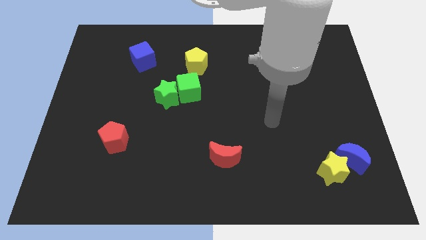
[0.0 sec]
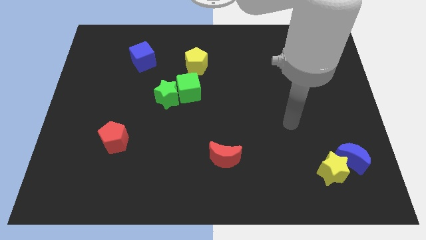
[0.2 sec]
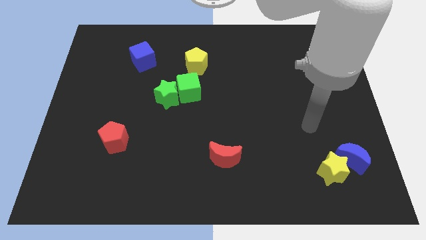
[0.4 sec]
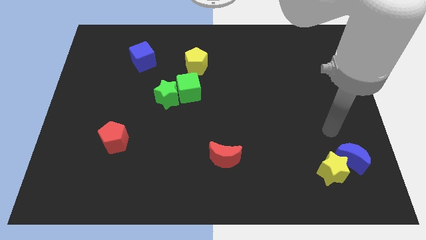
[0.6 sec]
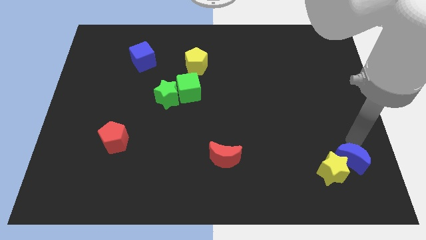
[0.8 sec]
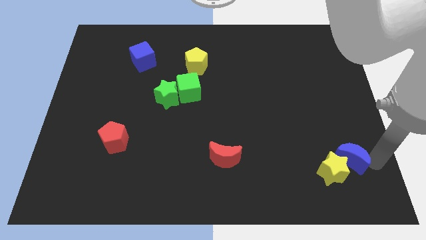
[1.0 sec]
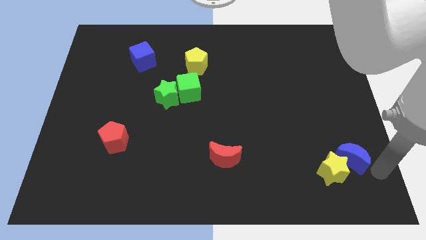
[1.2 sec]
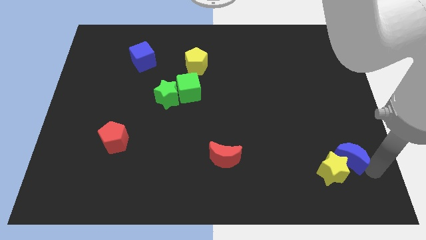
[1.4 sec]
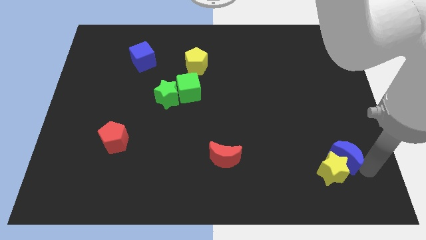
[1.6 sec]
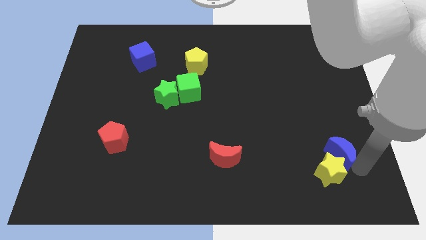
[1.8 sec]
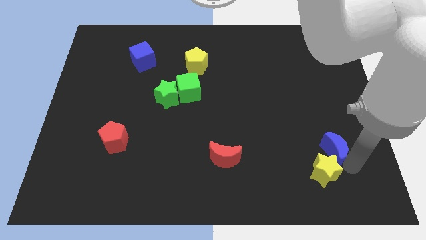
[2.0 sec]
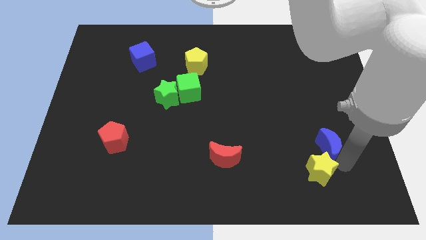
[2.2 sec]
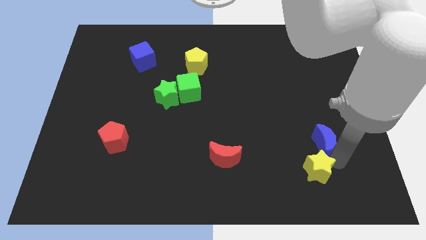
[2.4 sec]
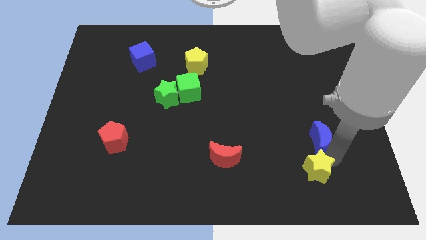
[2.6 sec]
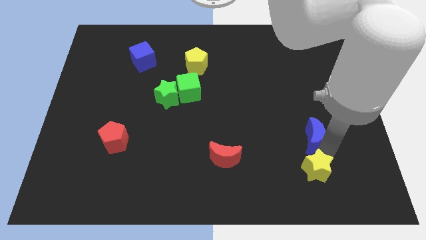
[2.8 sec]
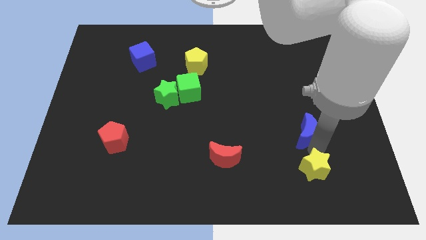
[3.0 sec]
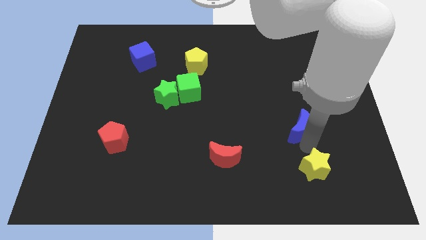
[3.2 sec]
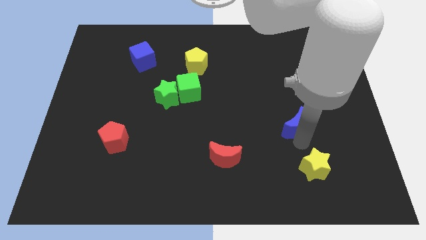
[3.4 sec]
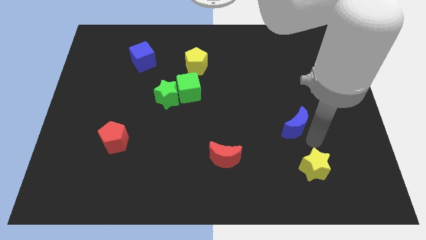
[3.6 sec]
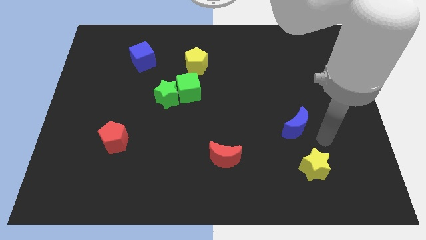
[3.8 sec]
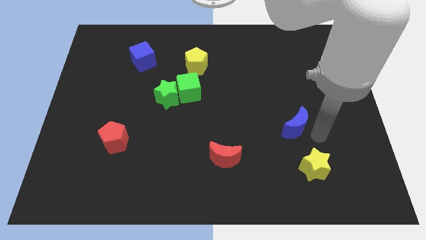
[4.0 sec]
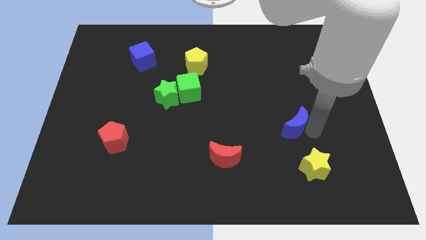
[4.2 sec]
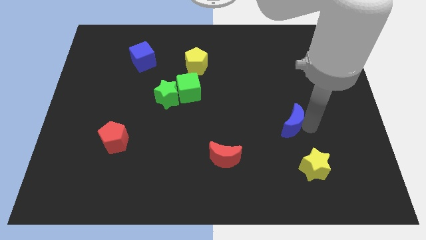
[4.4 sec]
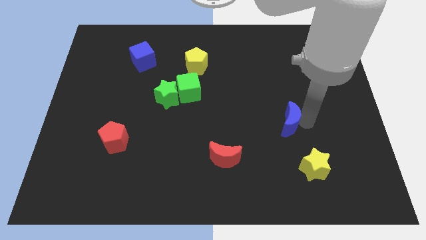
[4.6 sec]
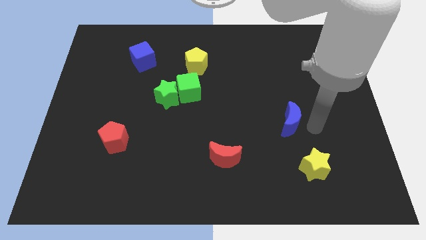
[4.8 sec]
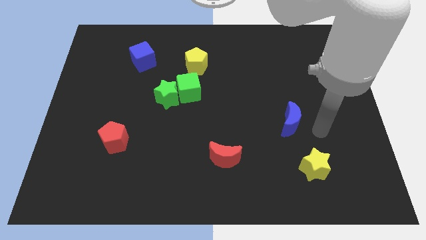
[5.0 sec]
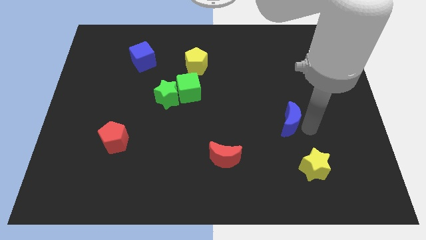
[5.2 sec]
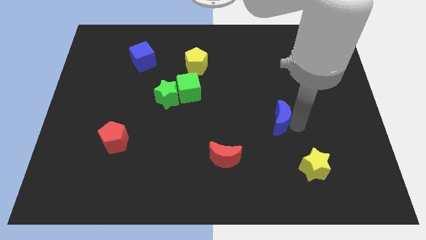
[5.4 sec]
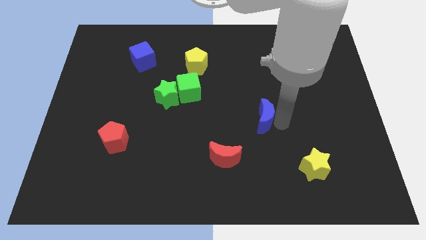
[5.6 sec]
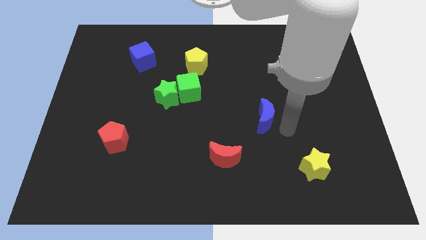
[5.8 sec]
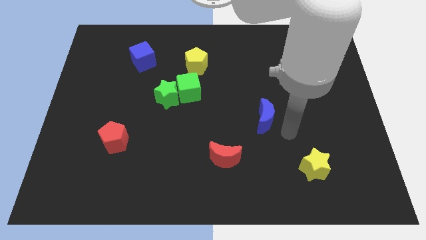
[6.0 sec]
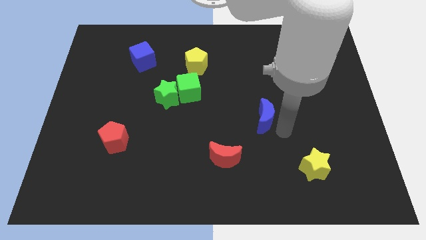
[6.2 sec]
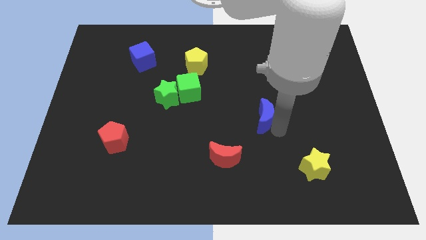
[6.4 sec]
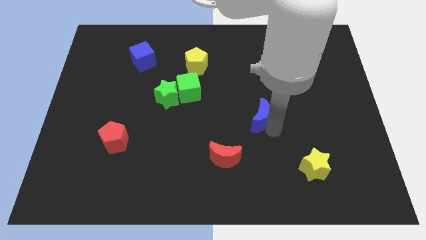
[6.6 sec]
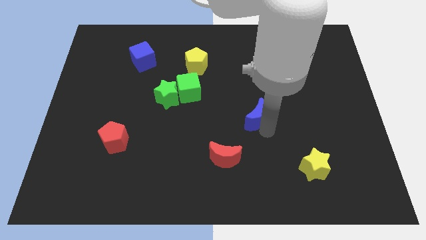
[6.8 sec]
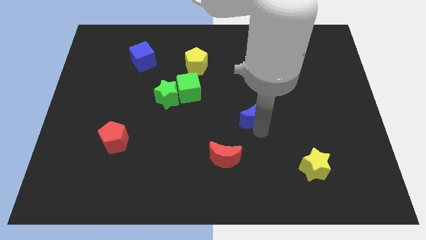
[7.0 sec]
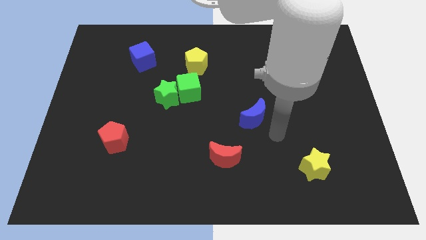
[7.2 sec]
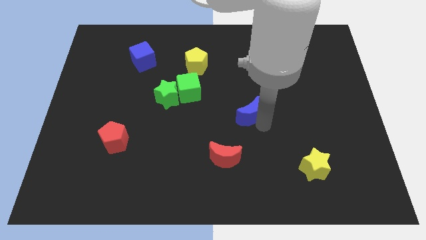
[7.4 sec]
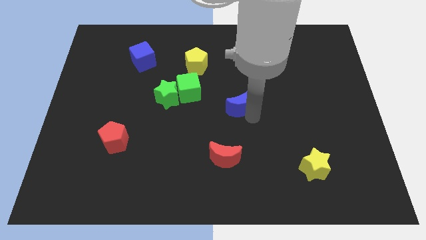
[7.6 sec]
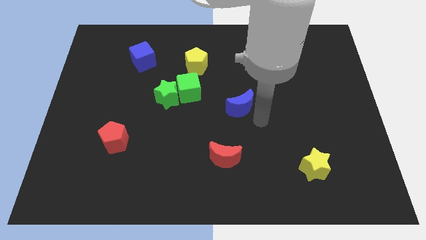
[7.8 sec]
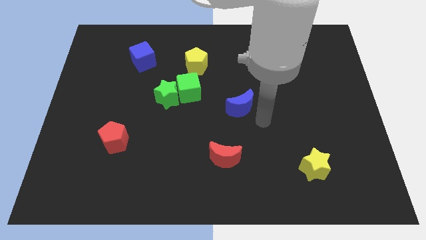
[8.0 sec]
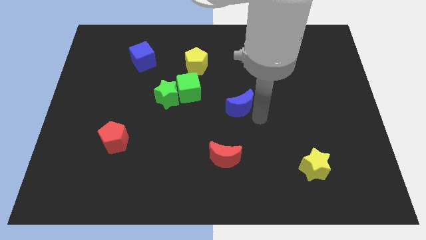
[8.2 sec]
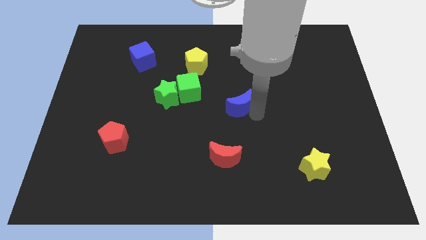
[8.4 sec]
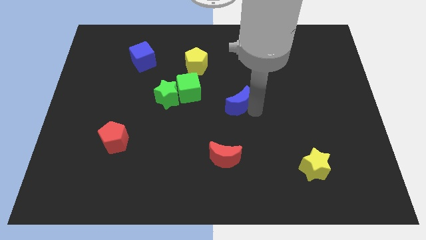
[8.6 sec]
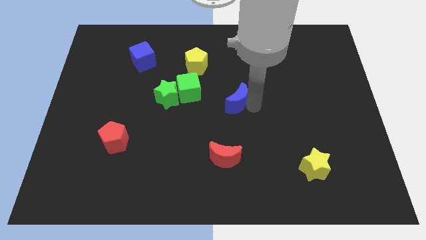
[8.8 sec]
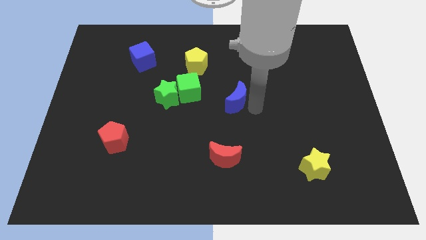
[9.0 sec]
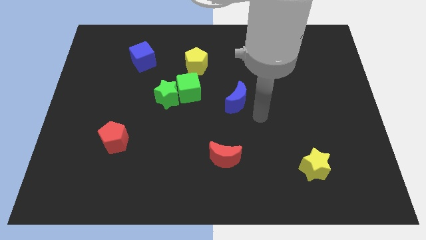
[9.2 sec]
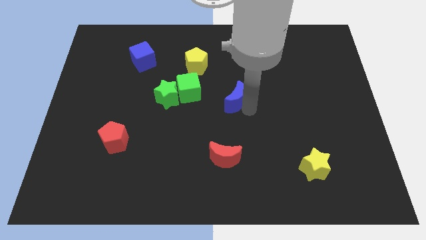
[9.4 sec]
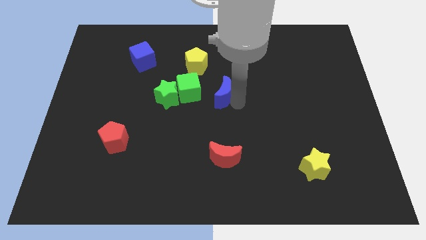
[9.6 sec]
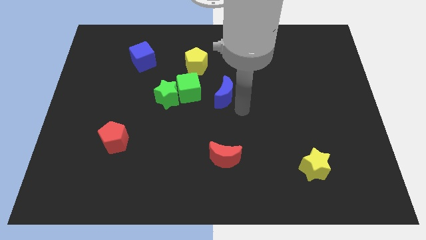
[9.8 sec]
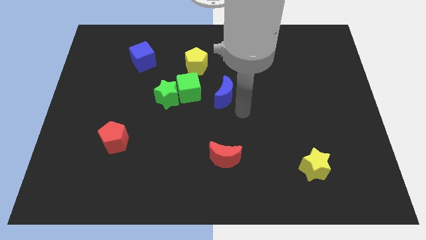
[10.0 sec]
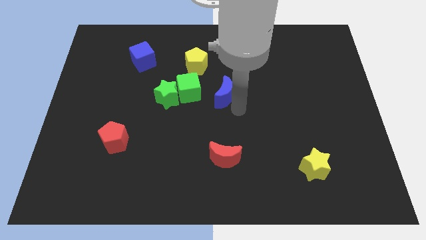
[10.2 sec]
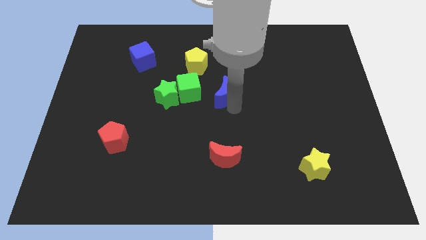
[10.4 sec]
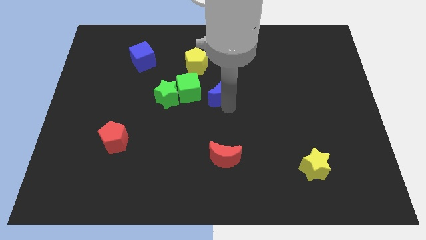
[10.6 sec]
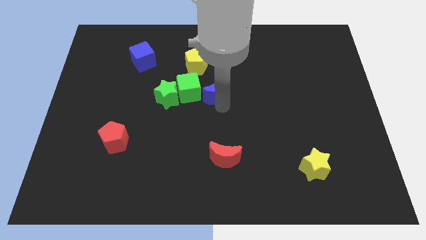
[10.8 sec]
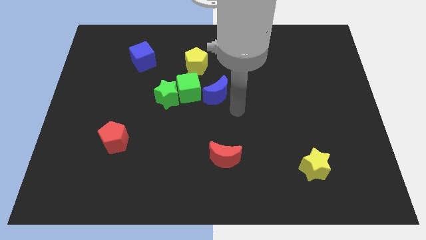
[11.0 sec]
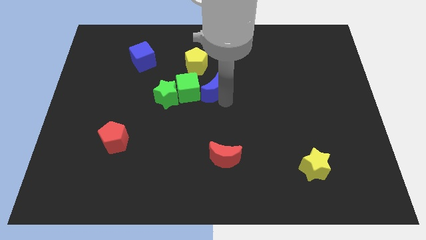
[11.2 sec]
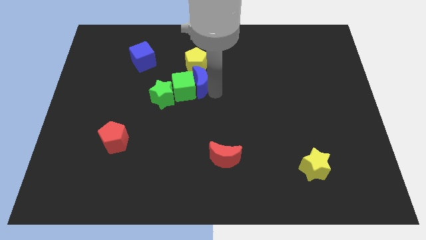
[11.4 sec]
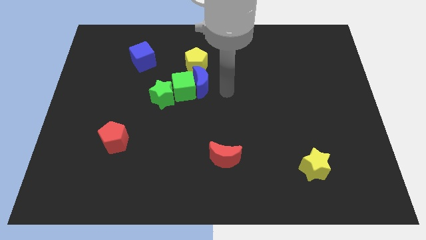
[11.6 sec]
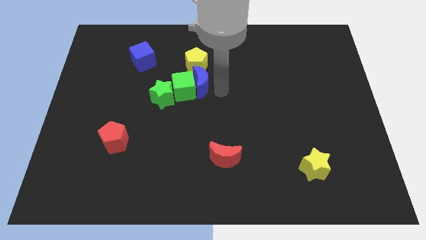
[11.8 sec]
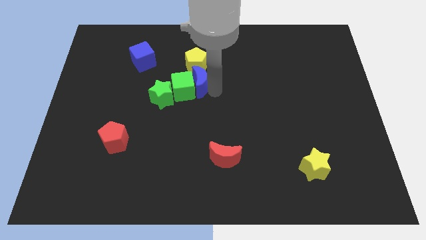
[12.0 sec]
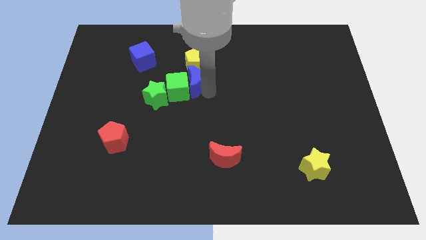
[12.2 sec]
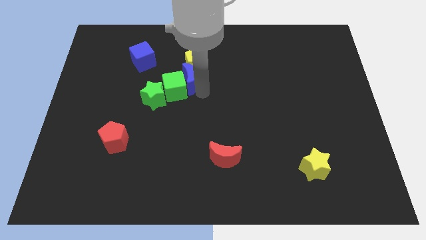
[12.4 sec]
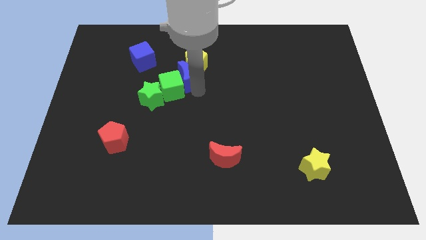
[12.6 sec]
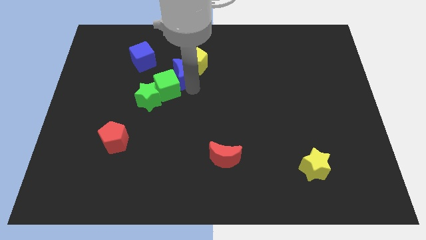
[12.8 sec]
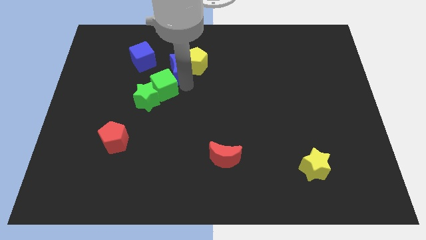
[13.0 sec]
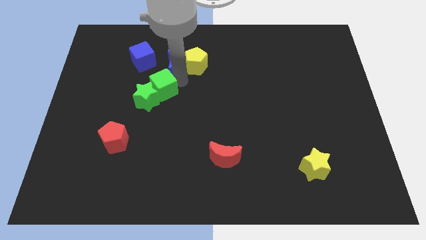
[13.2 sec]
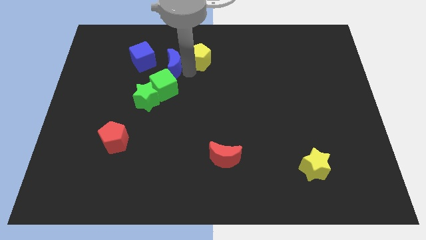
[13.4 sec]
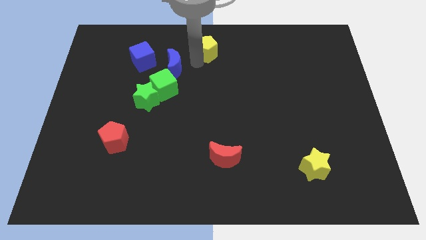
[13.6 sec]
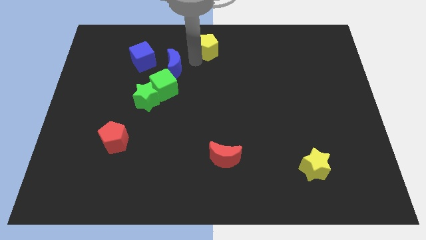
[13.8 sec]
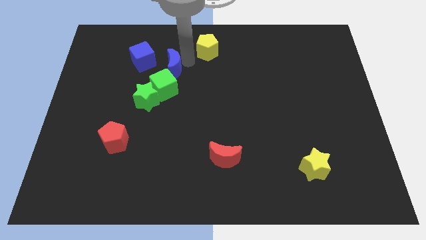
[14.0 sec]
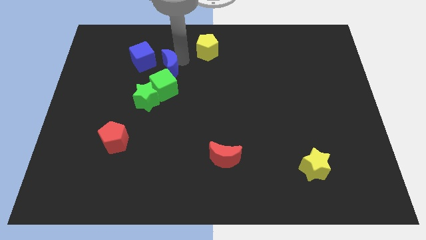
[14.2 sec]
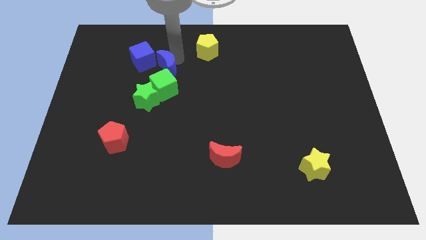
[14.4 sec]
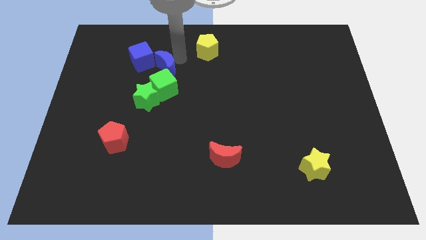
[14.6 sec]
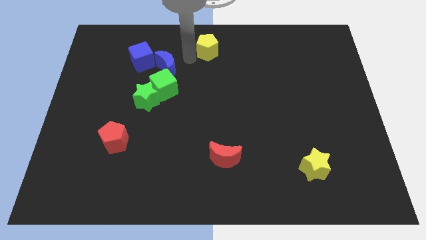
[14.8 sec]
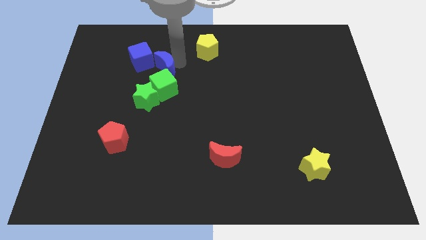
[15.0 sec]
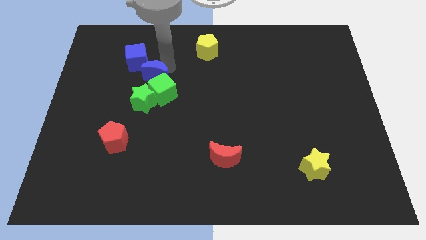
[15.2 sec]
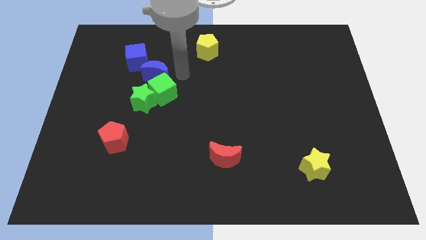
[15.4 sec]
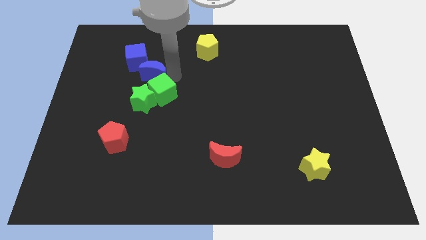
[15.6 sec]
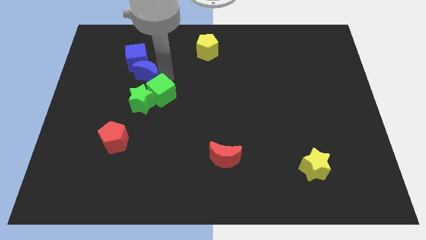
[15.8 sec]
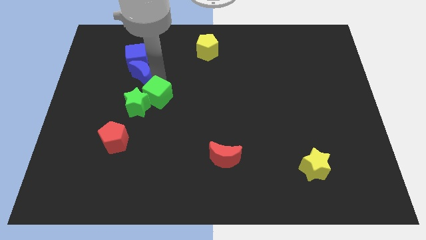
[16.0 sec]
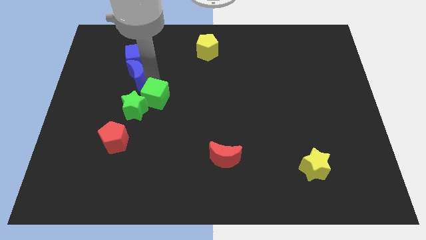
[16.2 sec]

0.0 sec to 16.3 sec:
push the blue moon to the bottom left side of the blue cube
